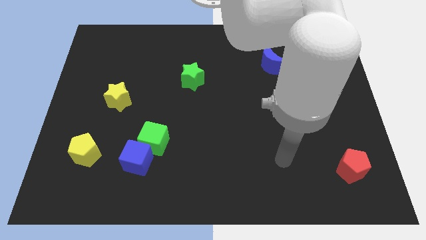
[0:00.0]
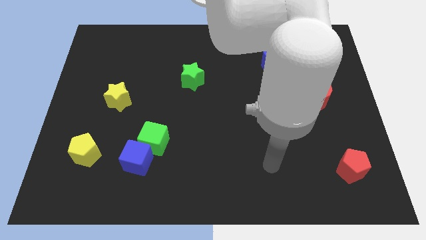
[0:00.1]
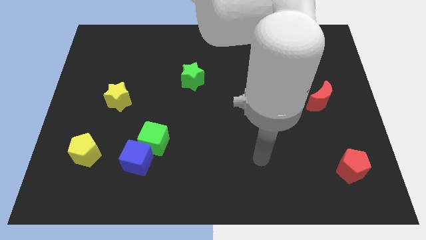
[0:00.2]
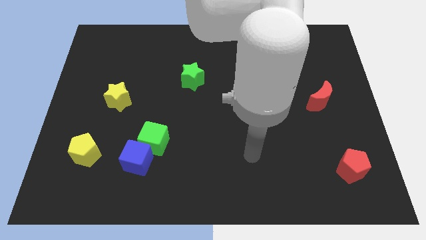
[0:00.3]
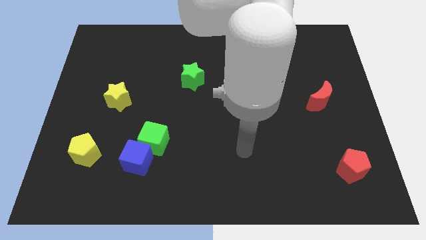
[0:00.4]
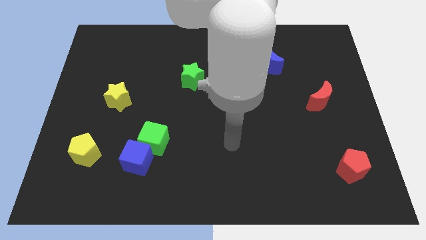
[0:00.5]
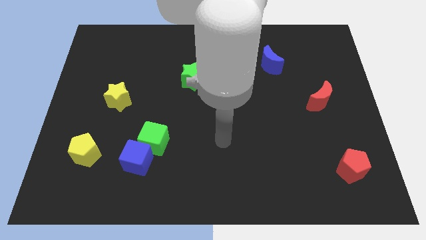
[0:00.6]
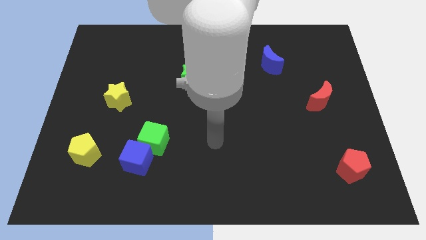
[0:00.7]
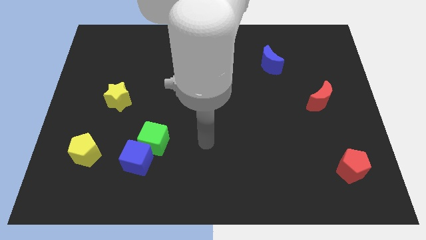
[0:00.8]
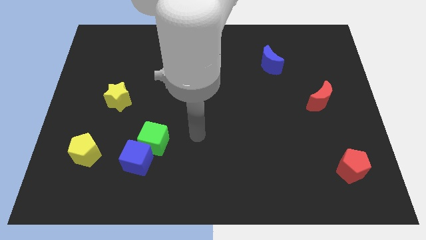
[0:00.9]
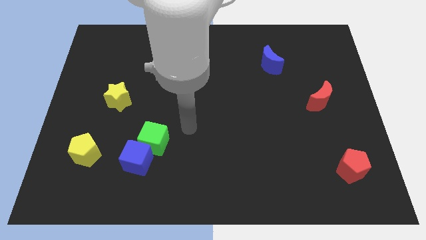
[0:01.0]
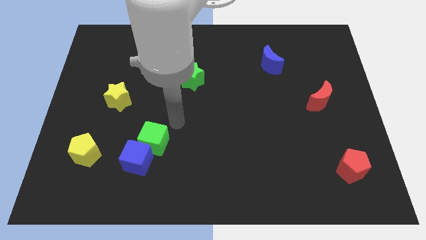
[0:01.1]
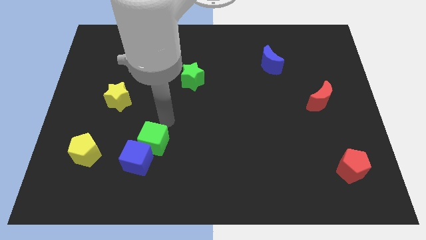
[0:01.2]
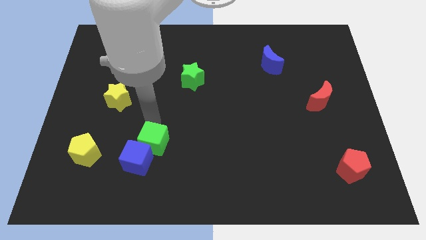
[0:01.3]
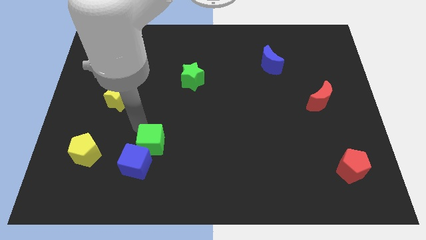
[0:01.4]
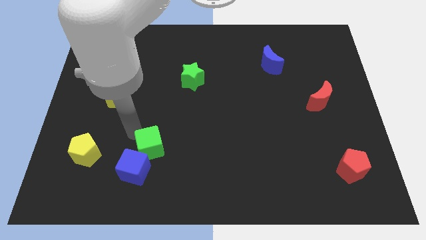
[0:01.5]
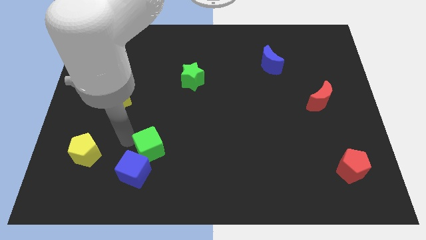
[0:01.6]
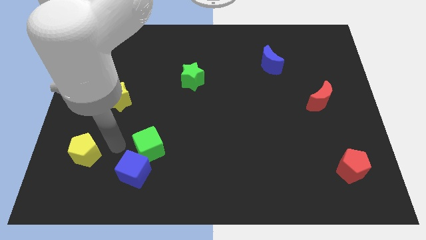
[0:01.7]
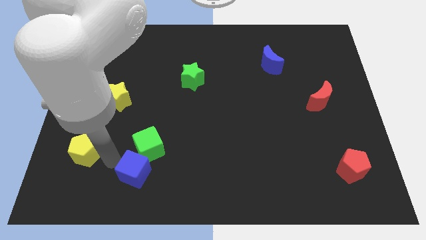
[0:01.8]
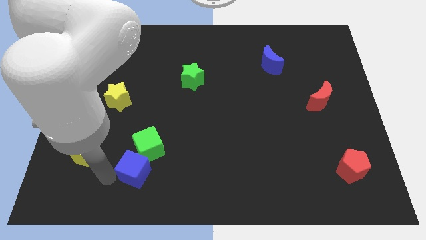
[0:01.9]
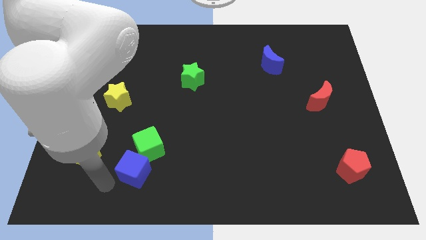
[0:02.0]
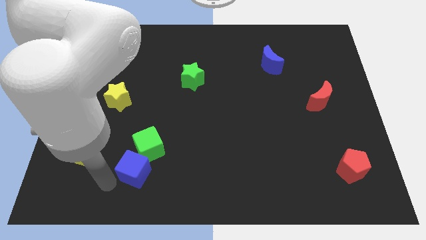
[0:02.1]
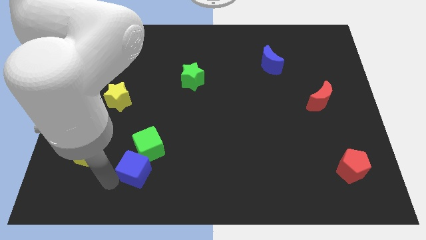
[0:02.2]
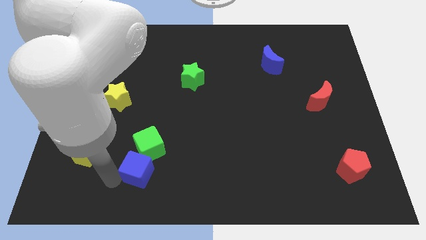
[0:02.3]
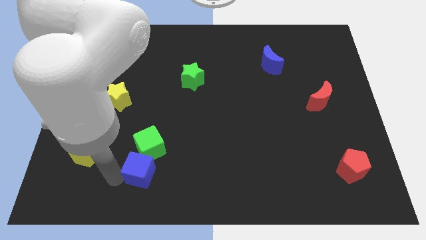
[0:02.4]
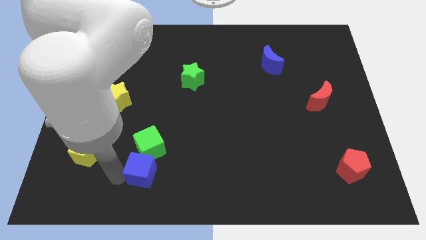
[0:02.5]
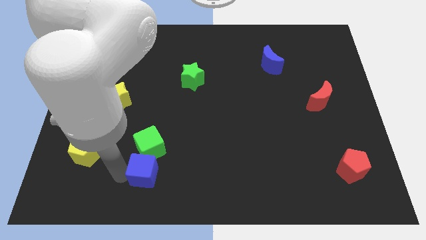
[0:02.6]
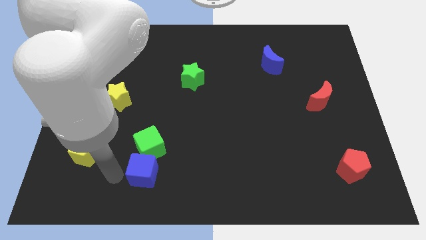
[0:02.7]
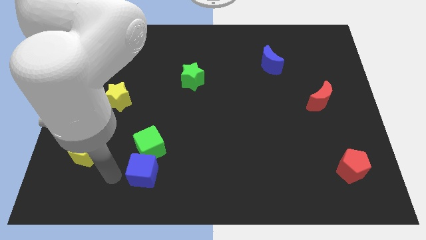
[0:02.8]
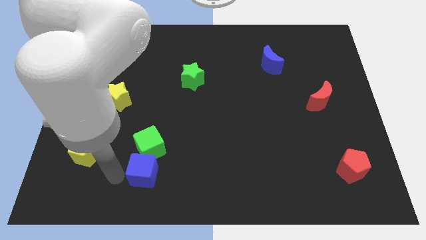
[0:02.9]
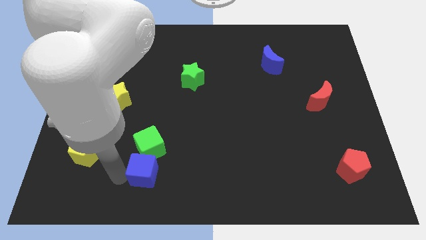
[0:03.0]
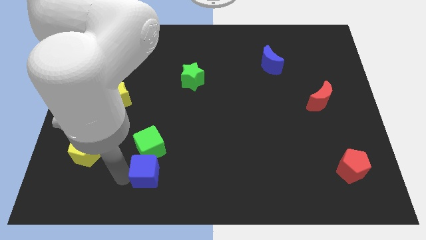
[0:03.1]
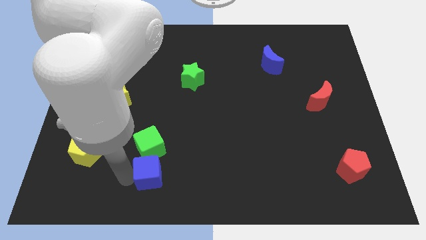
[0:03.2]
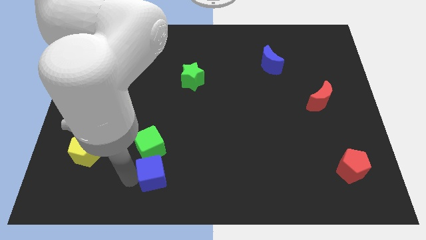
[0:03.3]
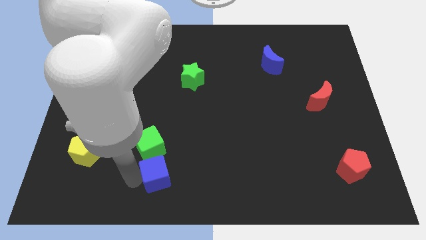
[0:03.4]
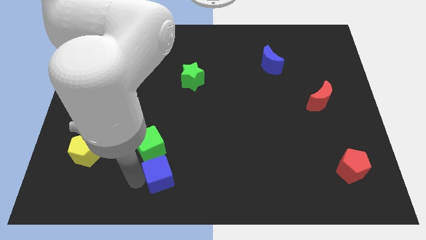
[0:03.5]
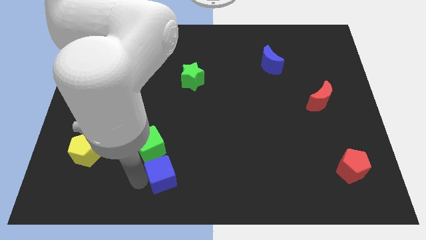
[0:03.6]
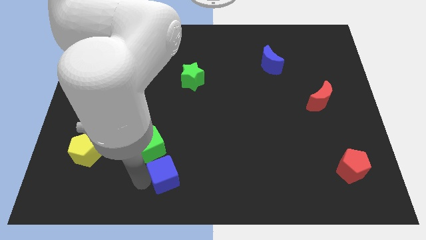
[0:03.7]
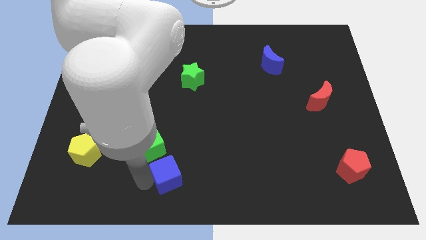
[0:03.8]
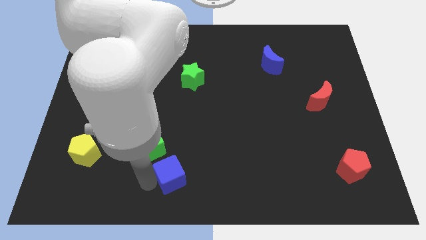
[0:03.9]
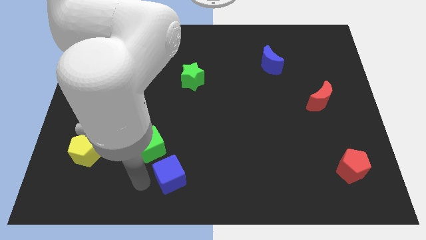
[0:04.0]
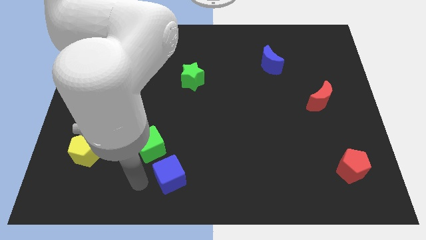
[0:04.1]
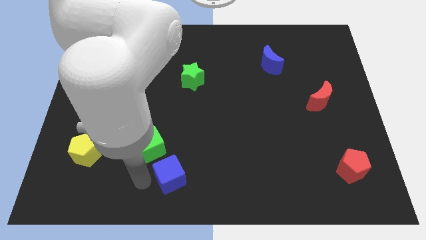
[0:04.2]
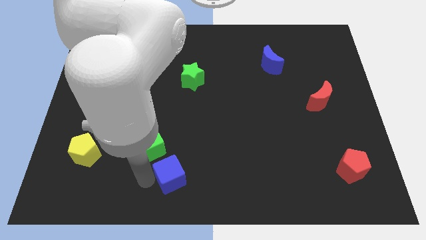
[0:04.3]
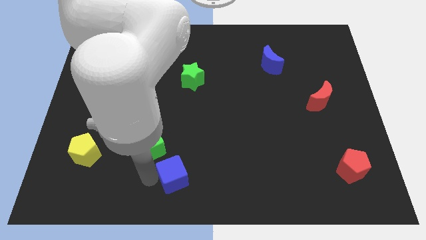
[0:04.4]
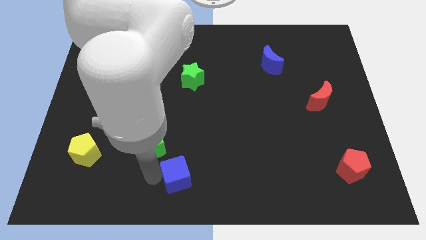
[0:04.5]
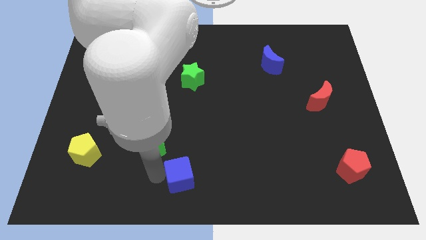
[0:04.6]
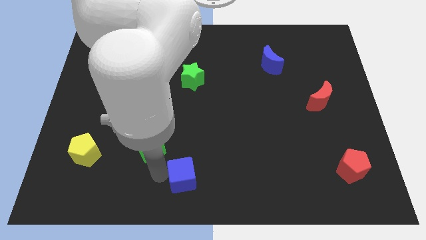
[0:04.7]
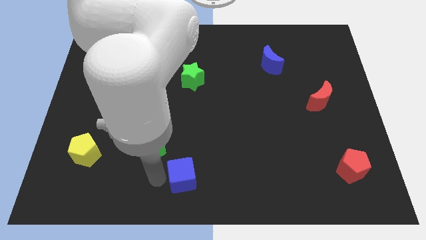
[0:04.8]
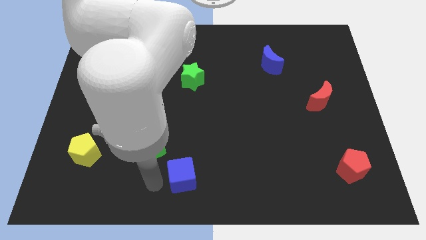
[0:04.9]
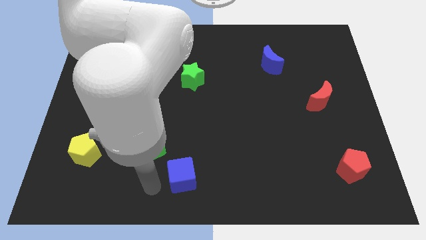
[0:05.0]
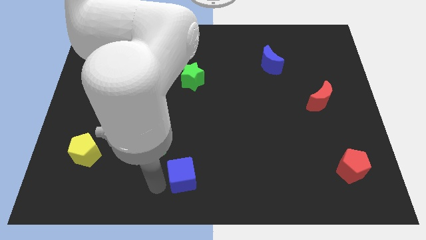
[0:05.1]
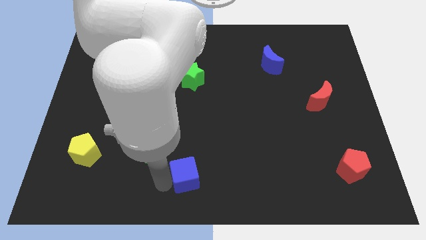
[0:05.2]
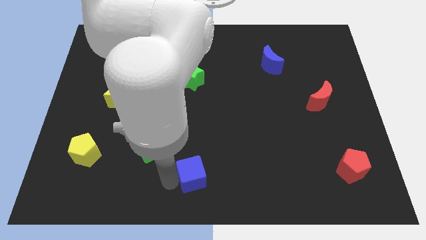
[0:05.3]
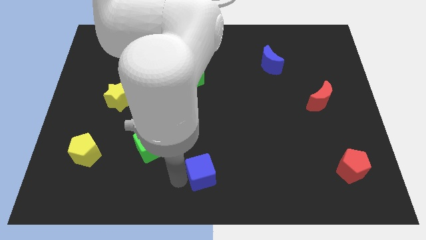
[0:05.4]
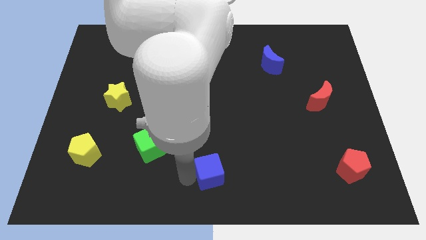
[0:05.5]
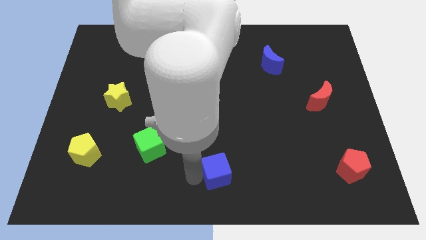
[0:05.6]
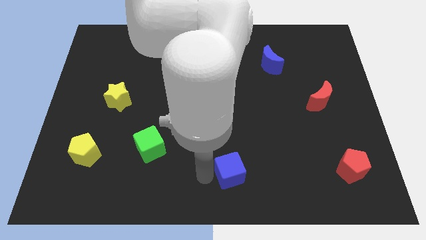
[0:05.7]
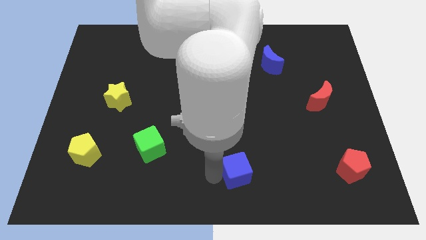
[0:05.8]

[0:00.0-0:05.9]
move the blue cube right

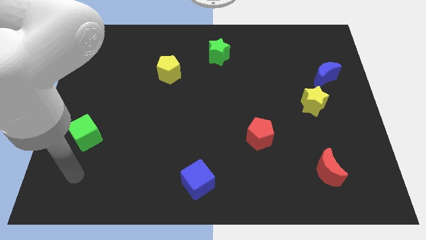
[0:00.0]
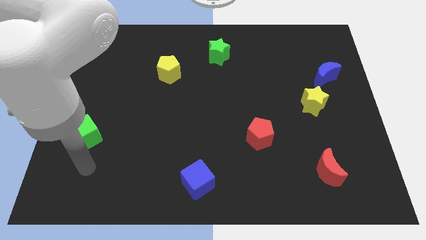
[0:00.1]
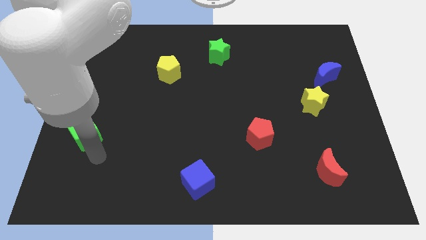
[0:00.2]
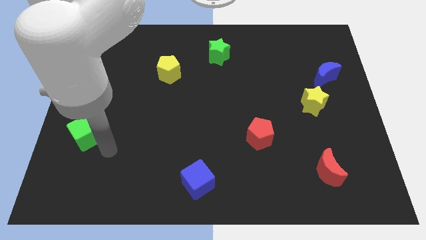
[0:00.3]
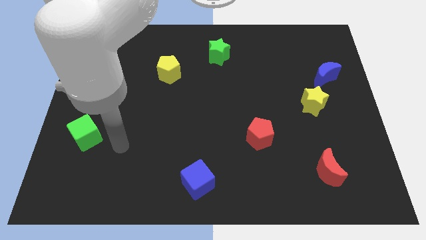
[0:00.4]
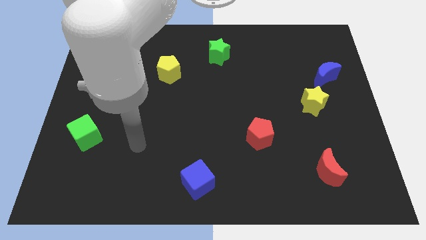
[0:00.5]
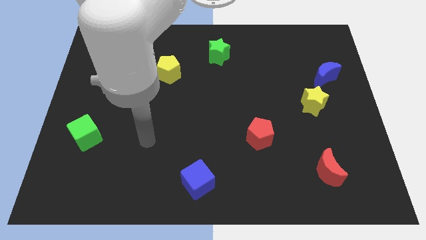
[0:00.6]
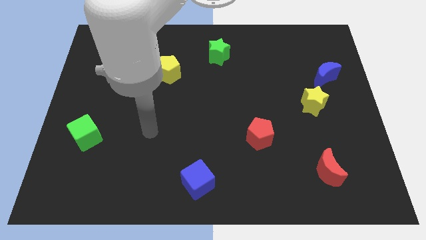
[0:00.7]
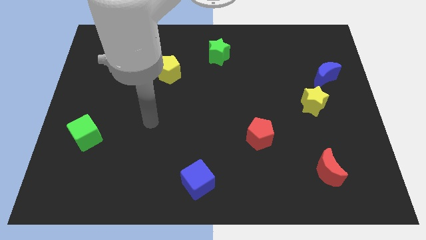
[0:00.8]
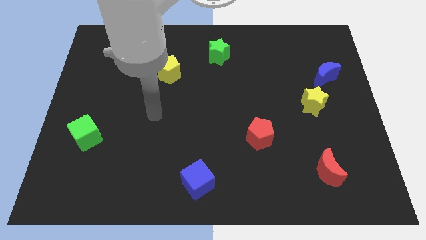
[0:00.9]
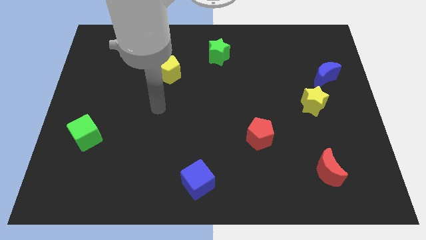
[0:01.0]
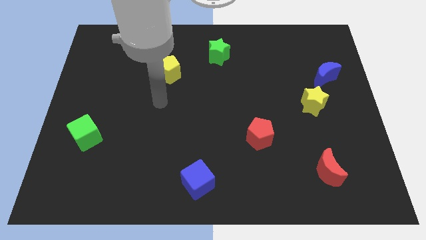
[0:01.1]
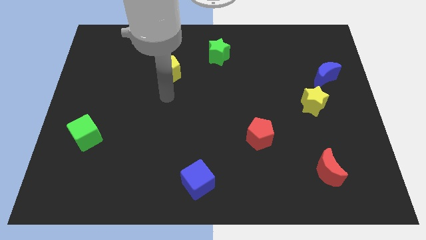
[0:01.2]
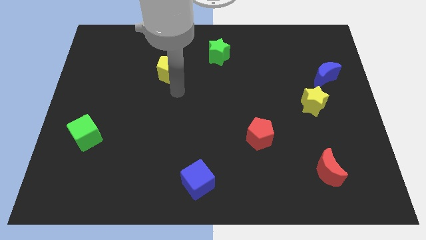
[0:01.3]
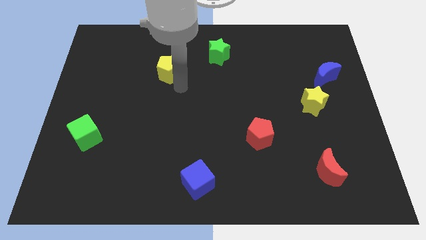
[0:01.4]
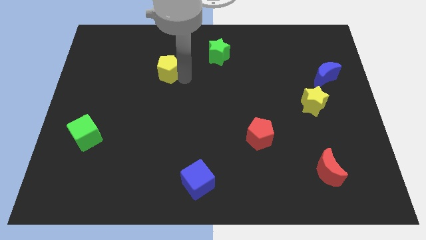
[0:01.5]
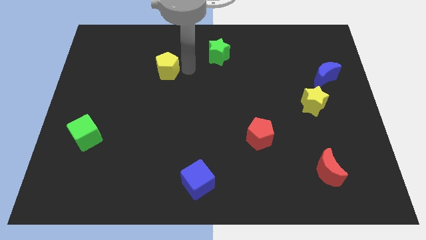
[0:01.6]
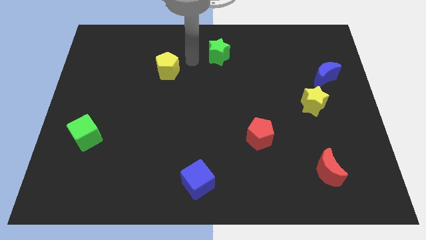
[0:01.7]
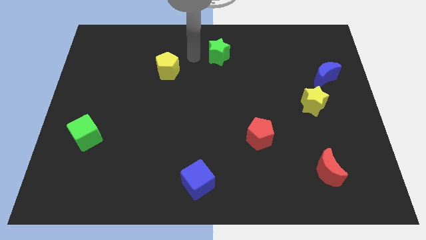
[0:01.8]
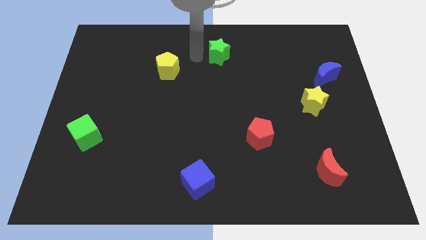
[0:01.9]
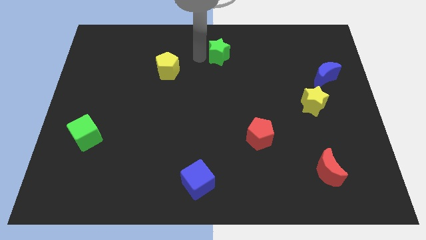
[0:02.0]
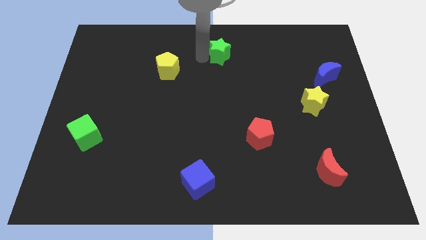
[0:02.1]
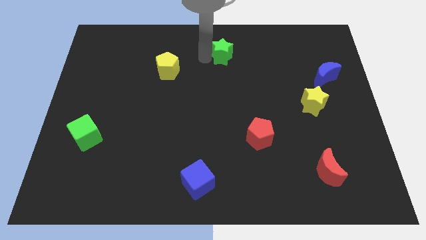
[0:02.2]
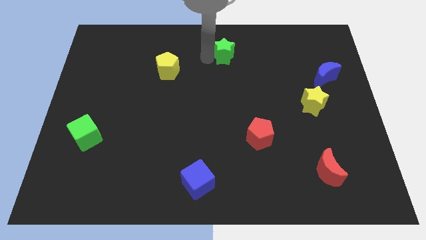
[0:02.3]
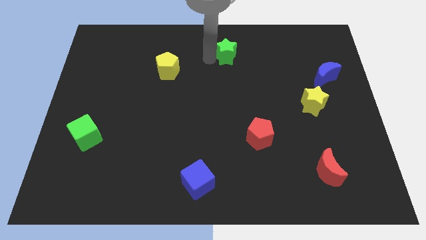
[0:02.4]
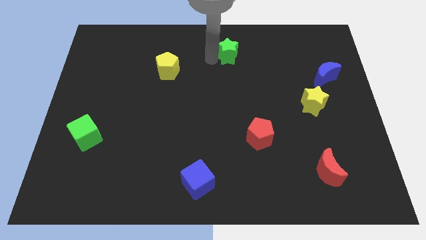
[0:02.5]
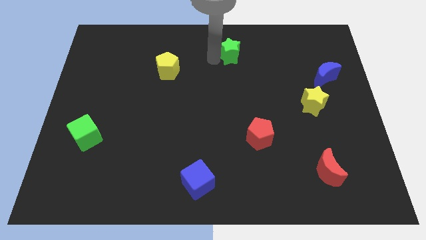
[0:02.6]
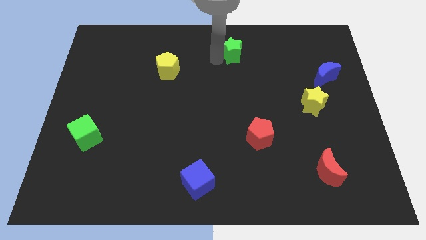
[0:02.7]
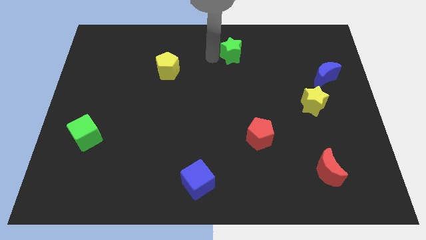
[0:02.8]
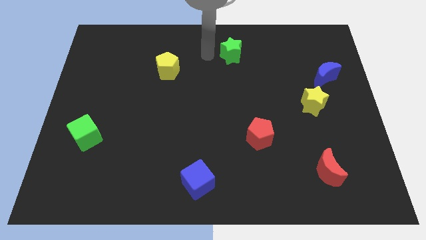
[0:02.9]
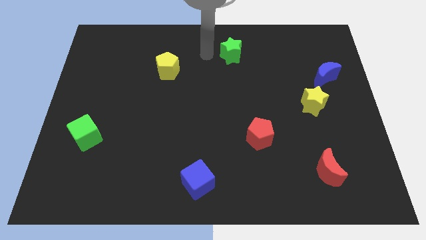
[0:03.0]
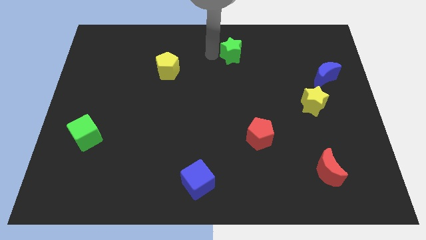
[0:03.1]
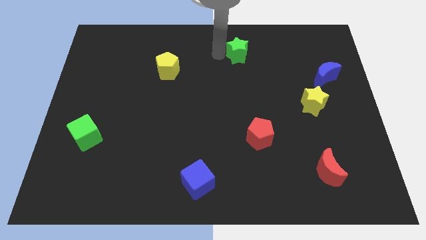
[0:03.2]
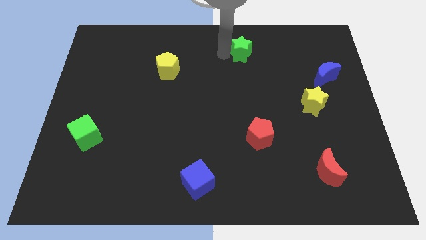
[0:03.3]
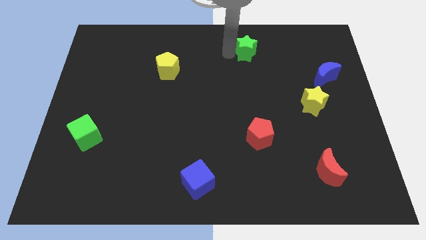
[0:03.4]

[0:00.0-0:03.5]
slightly move the green star right
